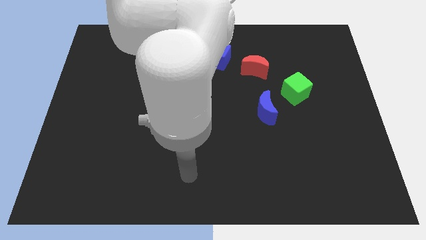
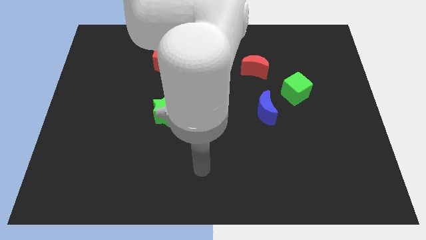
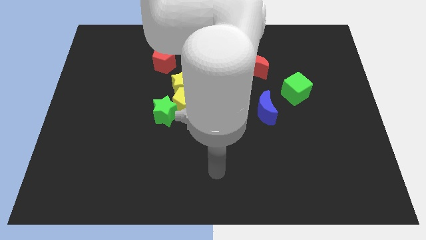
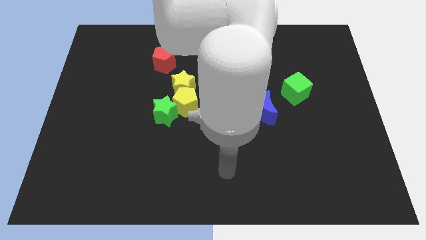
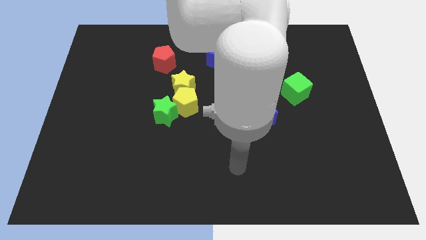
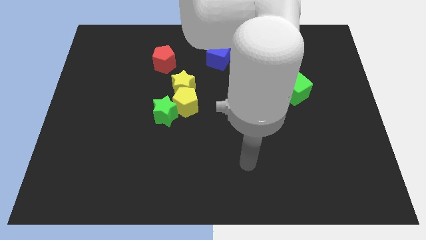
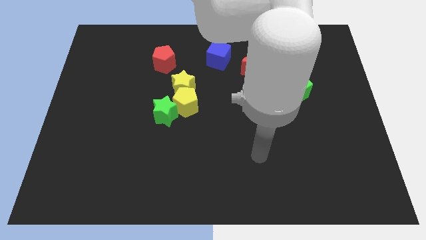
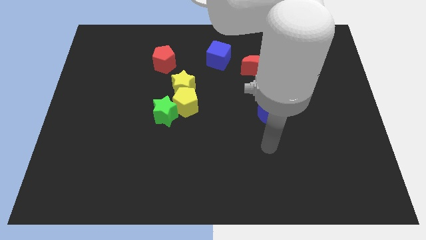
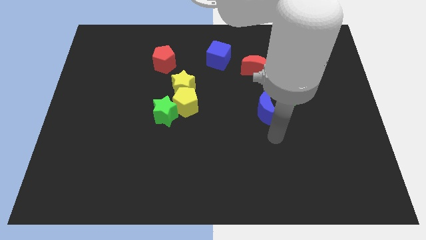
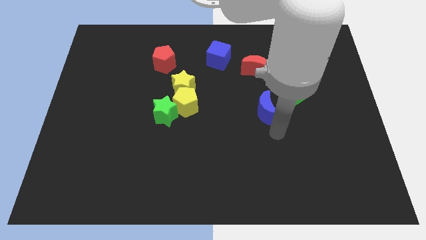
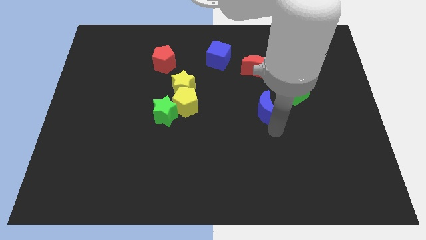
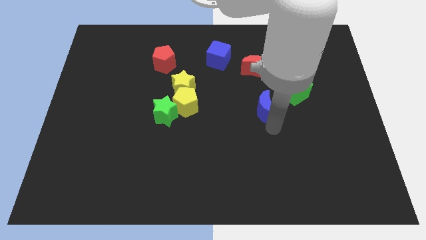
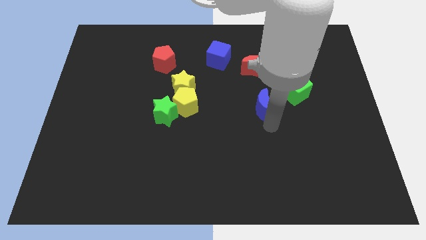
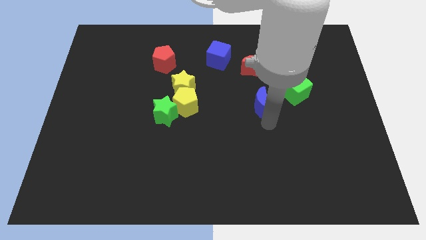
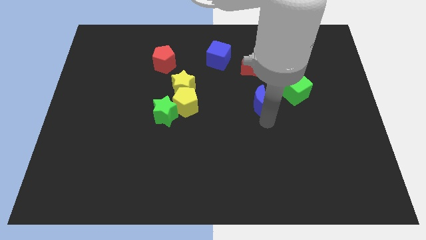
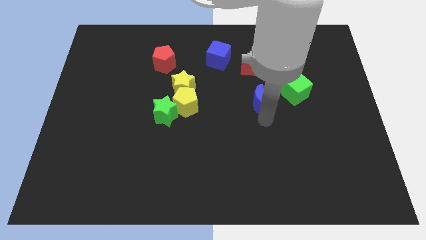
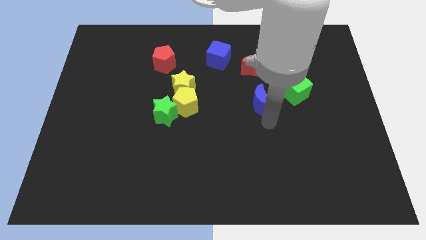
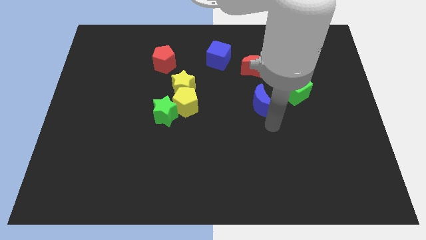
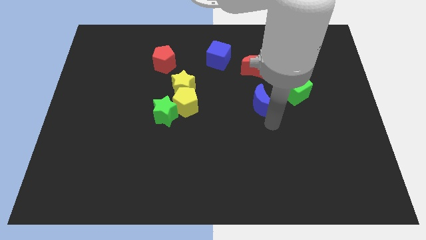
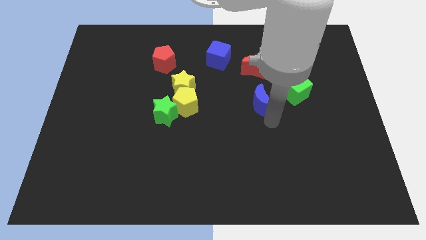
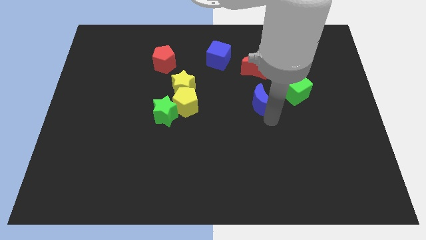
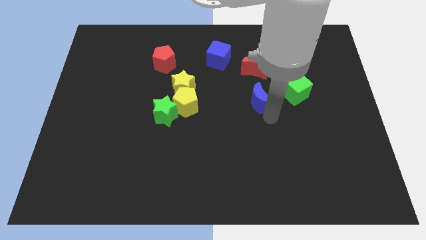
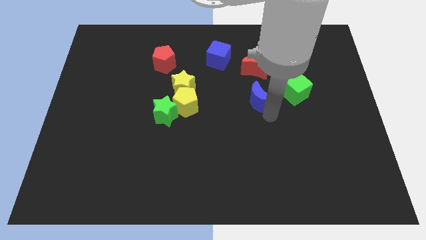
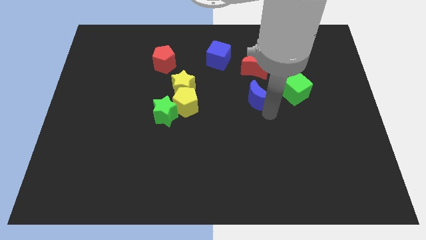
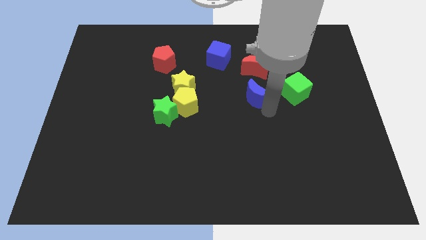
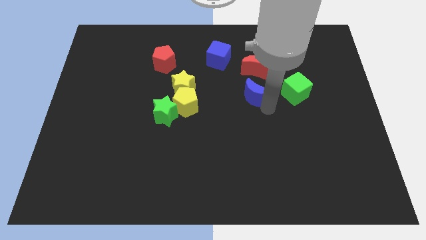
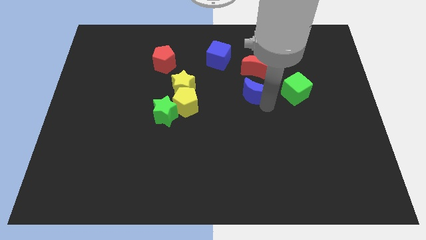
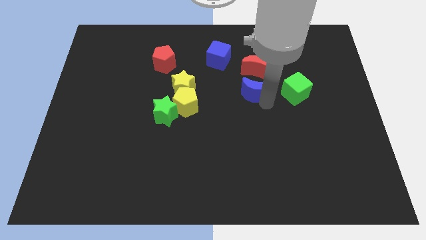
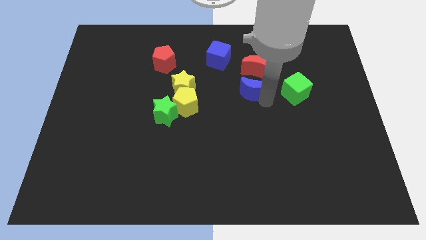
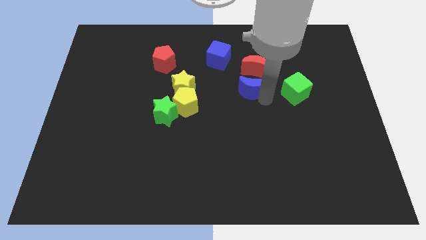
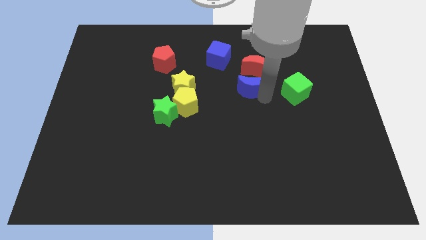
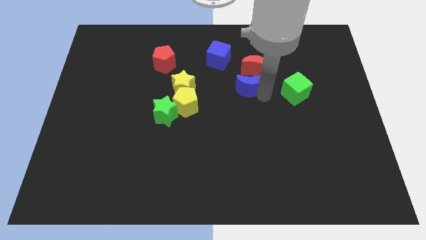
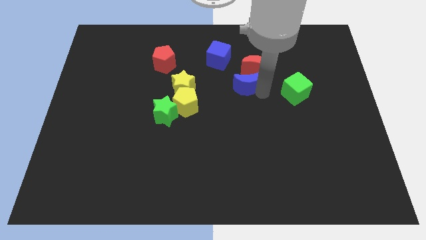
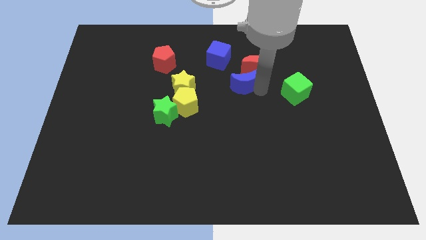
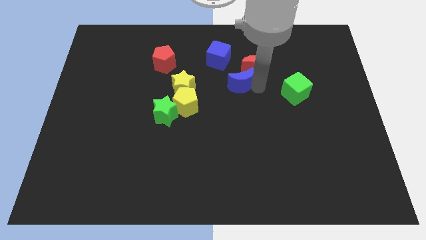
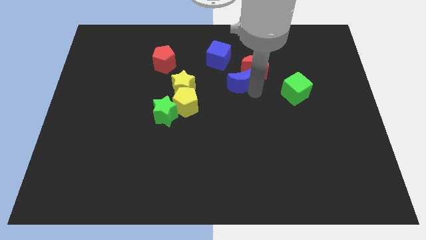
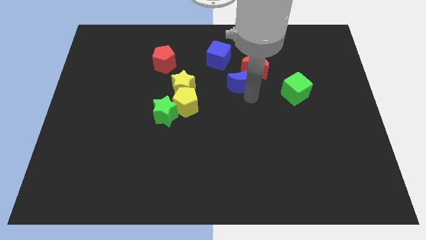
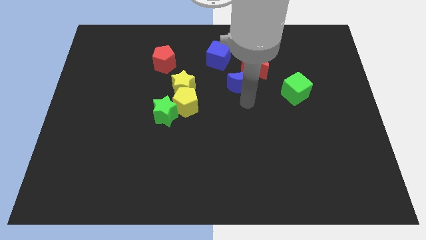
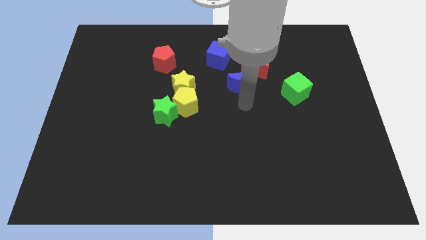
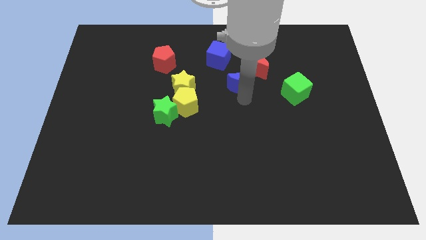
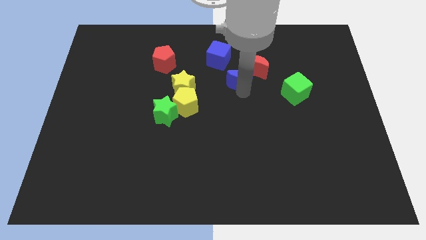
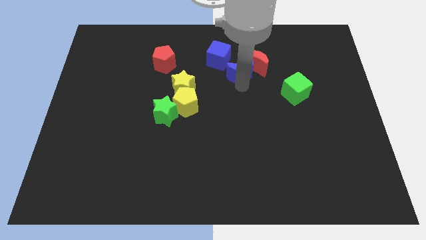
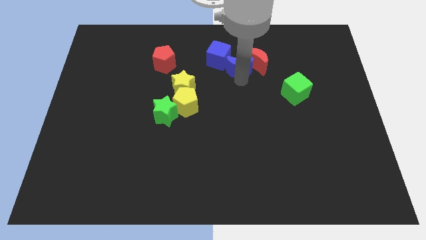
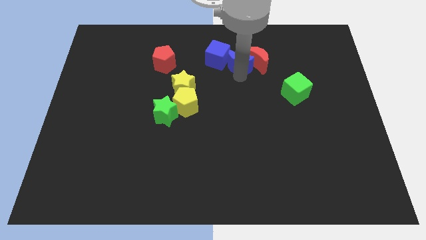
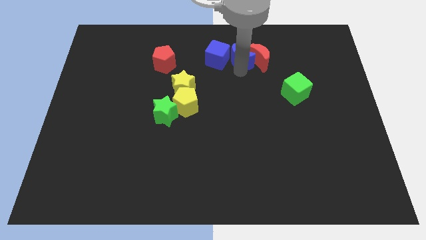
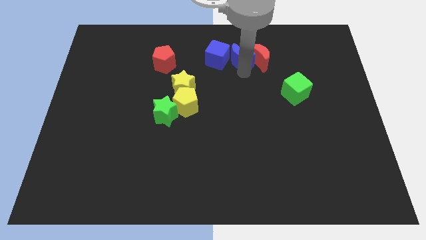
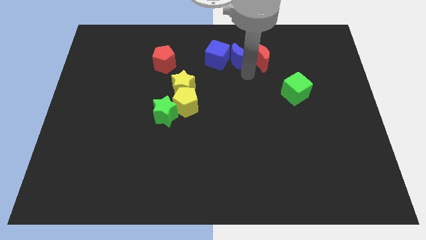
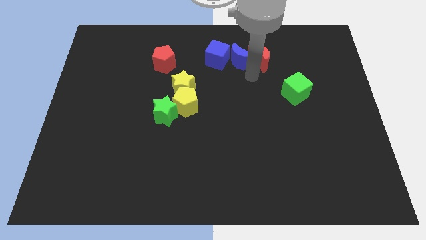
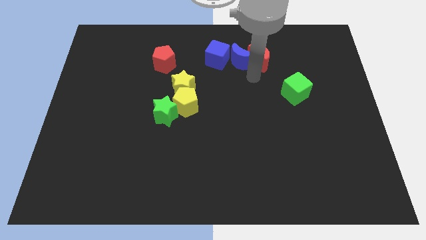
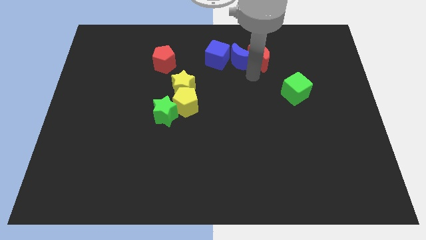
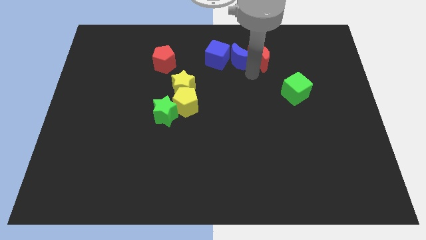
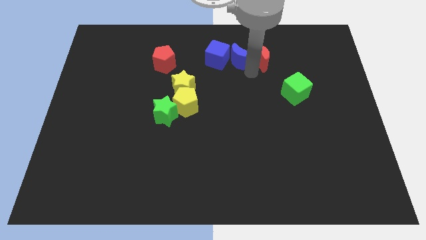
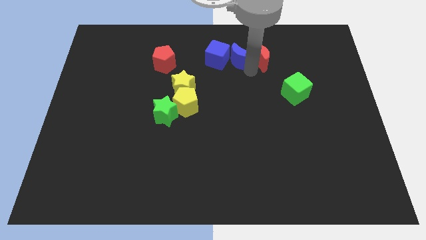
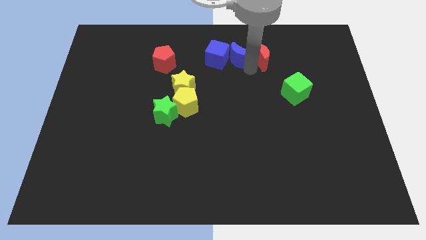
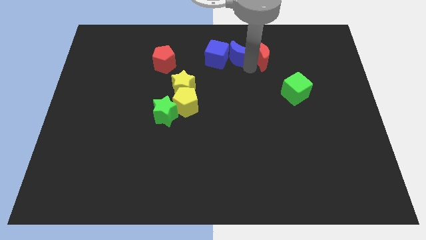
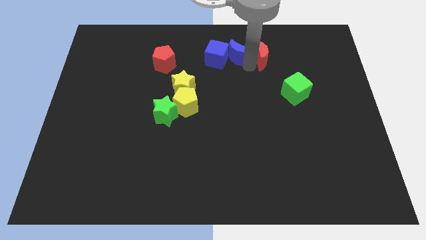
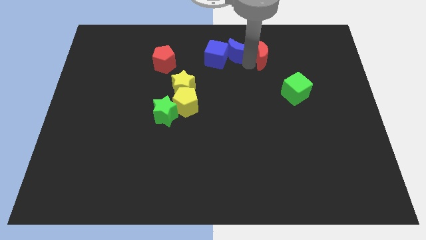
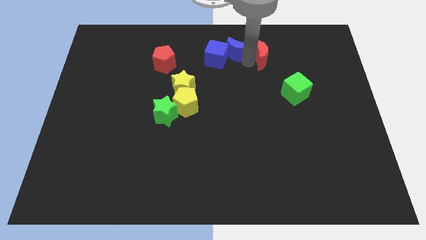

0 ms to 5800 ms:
slide the blue moon to the top
